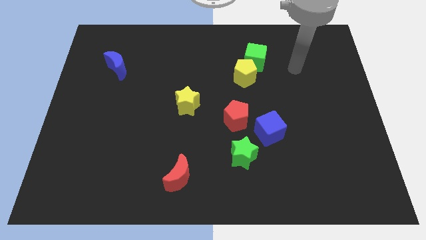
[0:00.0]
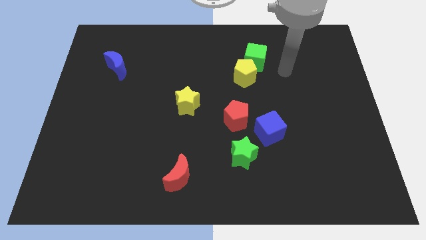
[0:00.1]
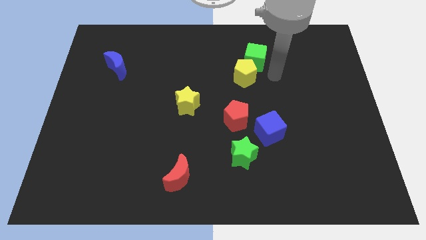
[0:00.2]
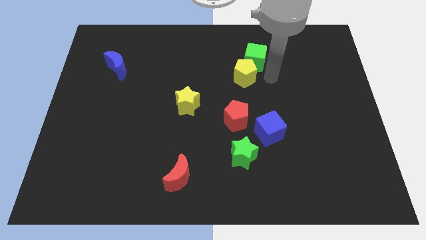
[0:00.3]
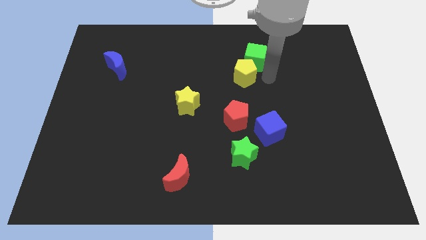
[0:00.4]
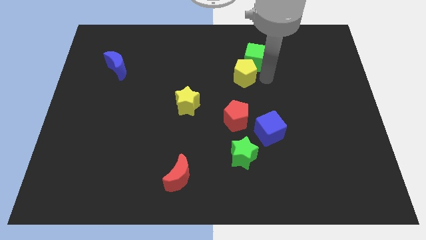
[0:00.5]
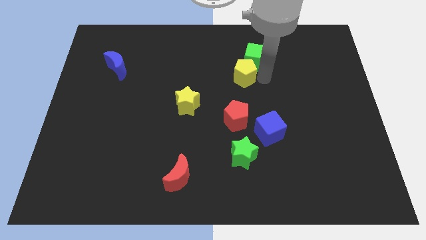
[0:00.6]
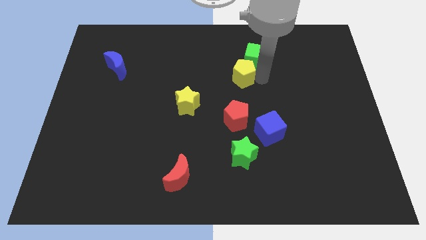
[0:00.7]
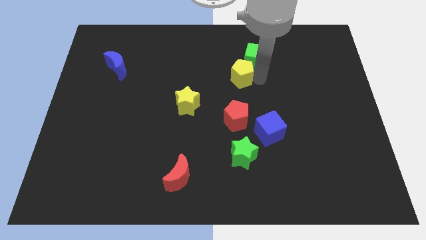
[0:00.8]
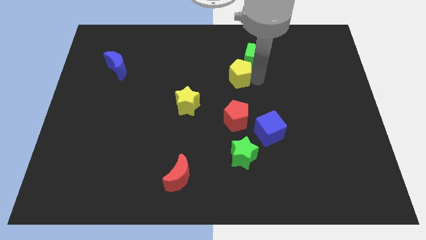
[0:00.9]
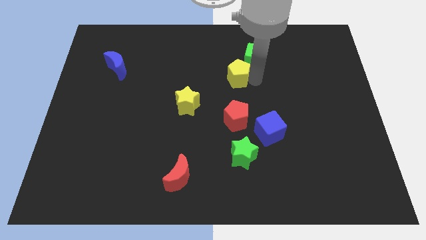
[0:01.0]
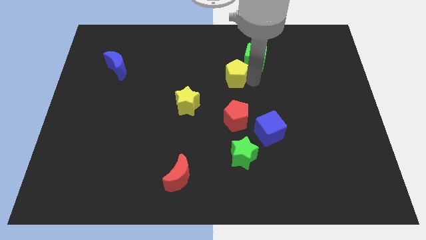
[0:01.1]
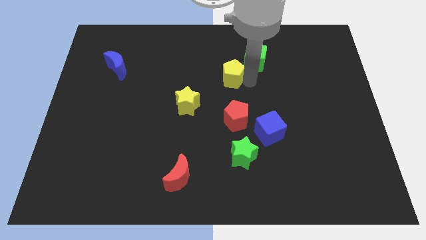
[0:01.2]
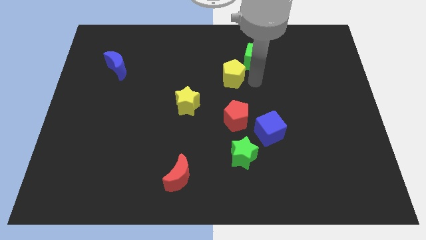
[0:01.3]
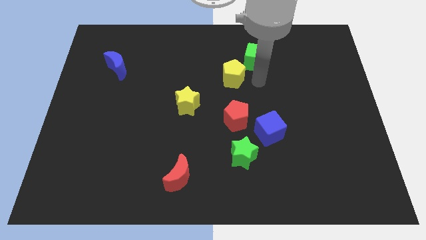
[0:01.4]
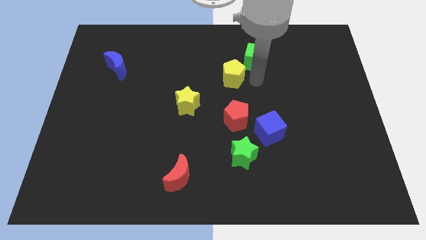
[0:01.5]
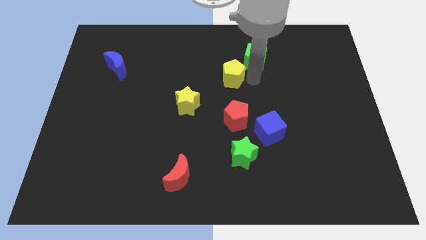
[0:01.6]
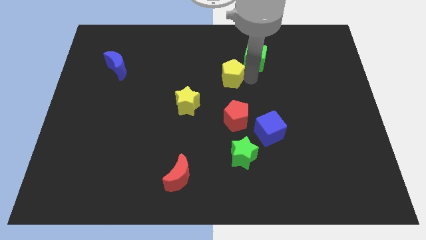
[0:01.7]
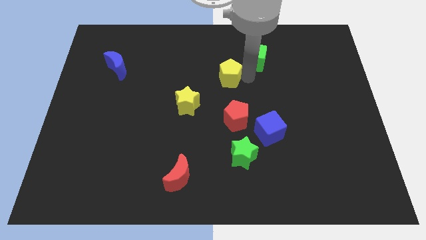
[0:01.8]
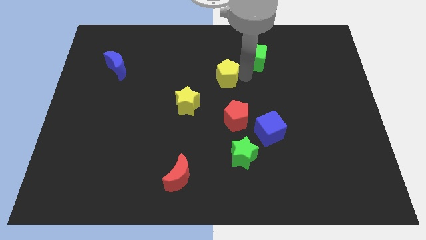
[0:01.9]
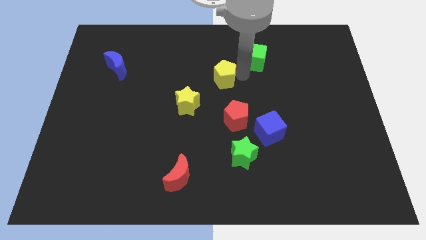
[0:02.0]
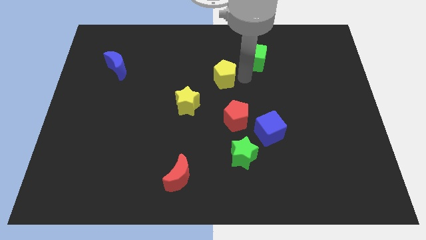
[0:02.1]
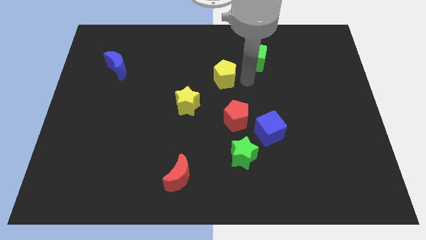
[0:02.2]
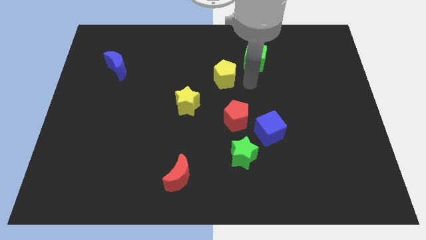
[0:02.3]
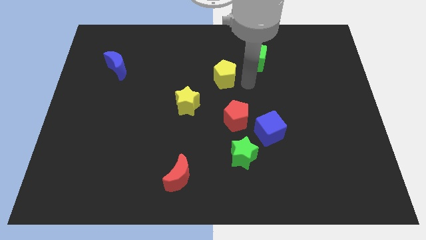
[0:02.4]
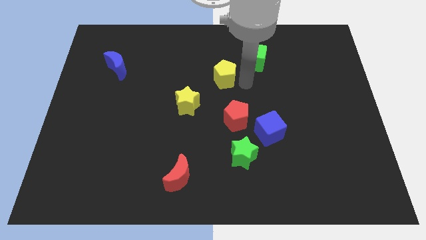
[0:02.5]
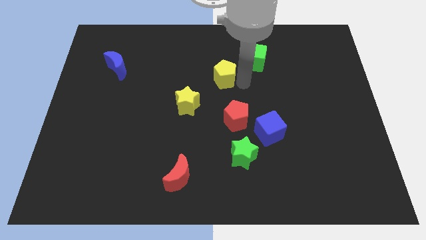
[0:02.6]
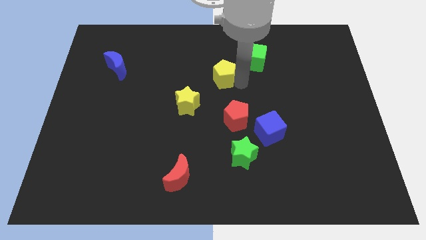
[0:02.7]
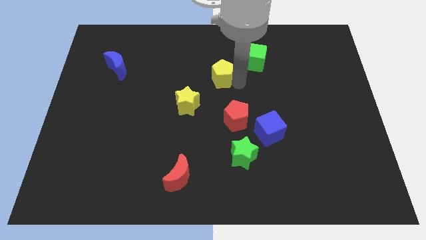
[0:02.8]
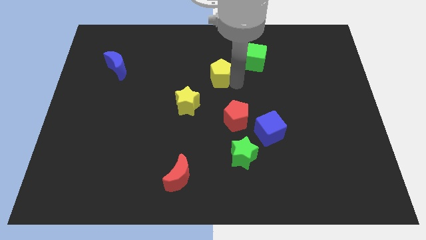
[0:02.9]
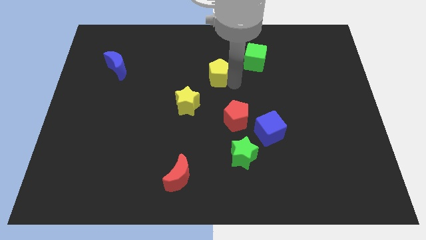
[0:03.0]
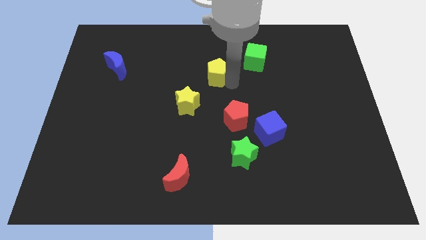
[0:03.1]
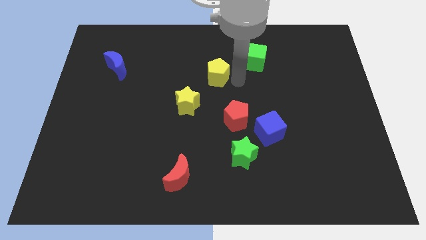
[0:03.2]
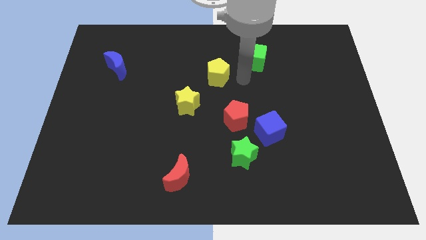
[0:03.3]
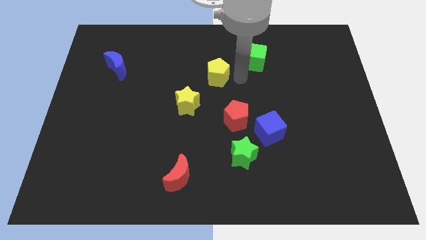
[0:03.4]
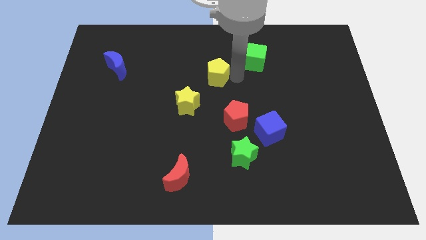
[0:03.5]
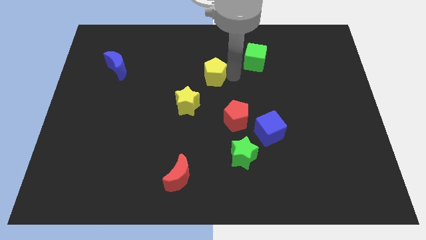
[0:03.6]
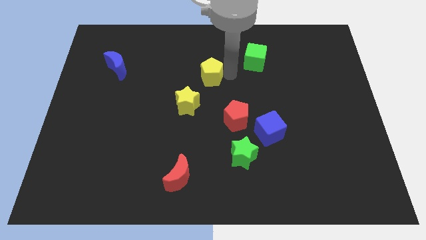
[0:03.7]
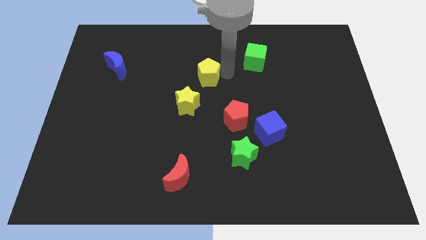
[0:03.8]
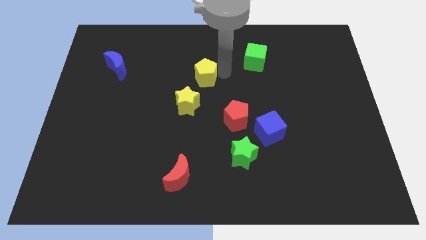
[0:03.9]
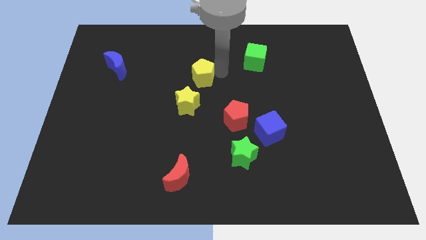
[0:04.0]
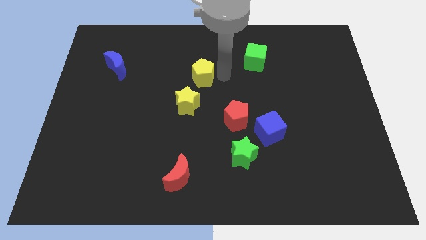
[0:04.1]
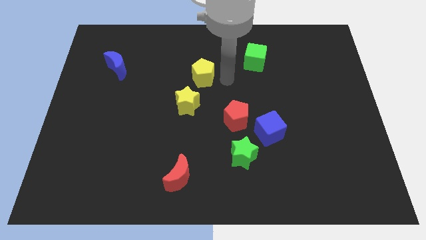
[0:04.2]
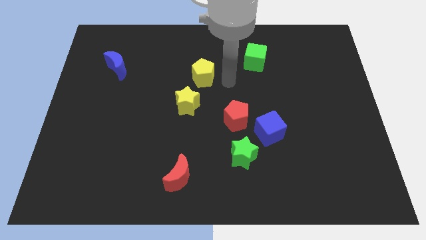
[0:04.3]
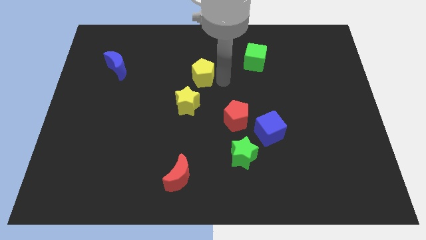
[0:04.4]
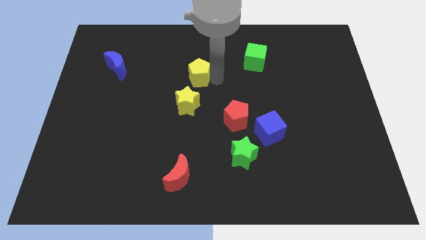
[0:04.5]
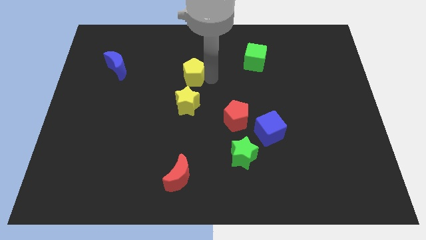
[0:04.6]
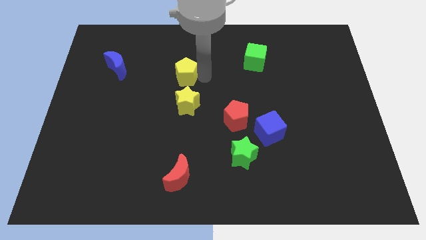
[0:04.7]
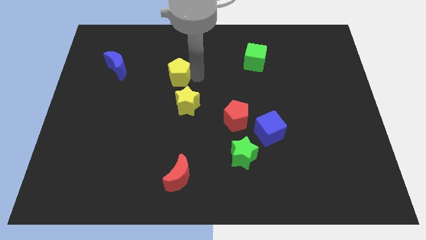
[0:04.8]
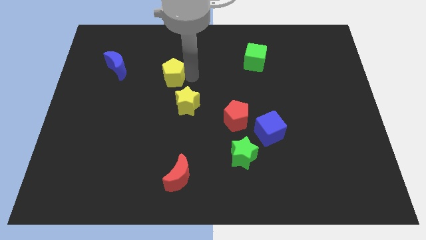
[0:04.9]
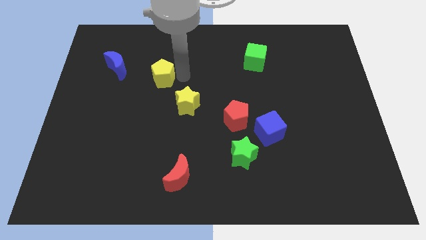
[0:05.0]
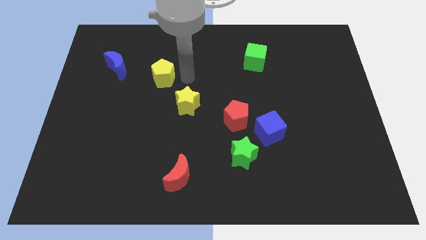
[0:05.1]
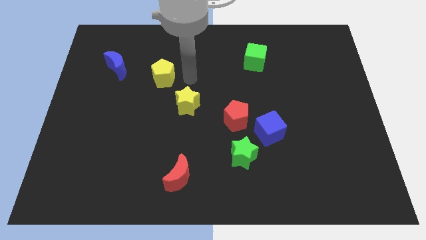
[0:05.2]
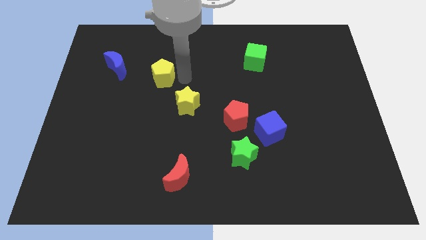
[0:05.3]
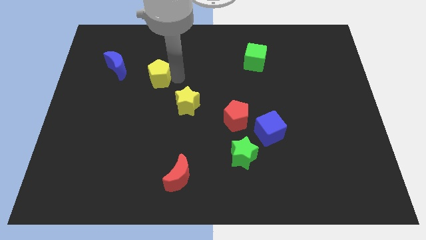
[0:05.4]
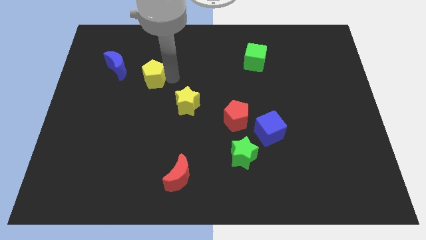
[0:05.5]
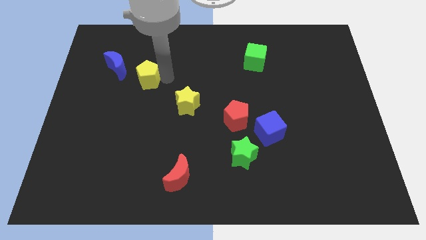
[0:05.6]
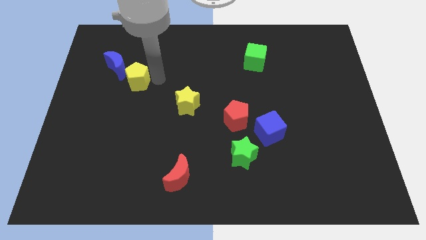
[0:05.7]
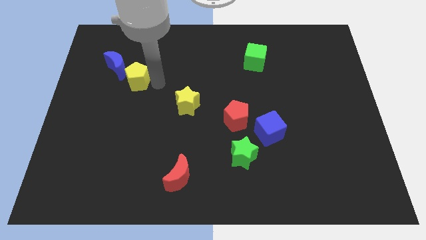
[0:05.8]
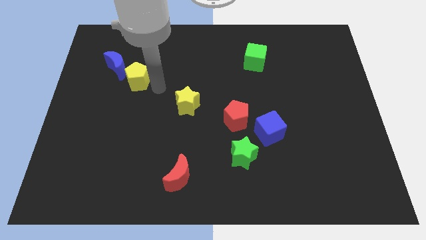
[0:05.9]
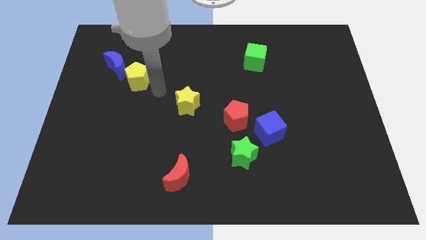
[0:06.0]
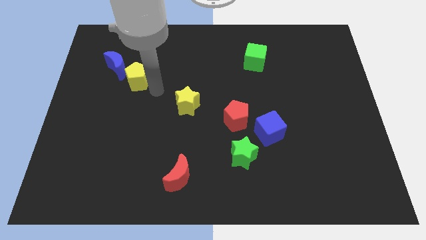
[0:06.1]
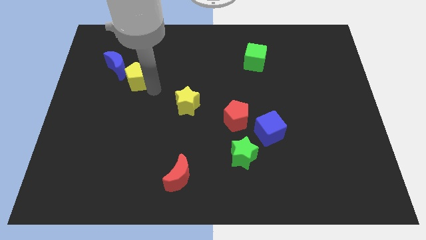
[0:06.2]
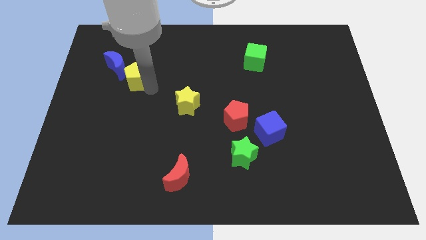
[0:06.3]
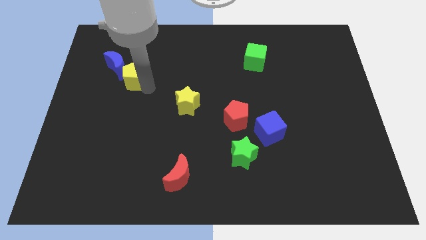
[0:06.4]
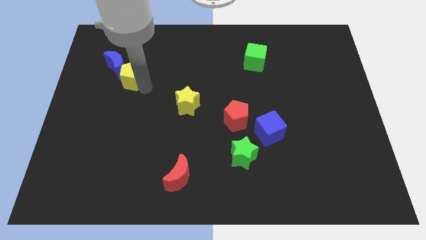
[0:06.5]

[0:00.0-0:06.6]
slide the yellow pentagon next to the blue moon

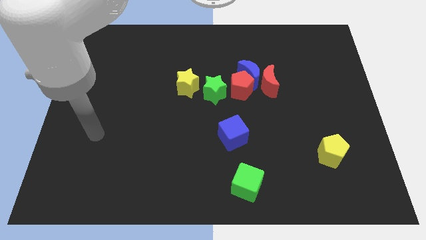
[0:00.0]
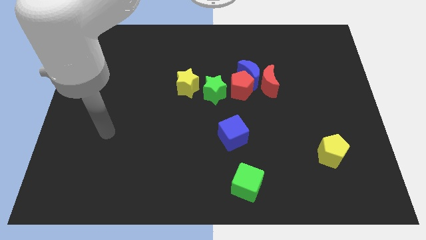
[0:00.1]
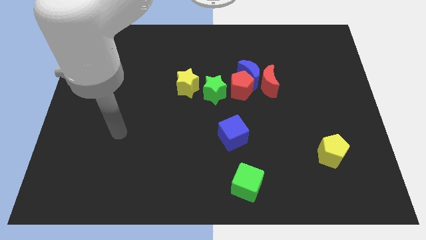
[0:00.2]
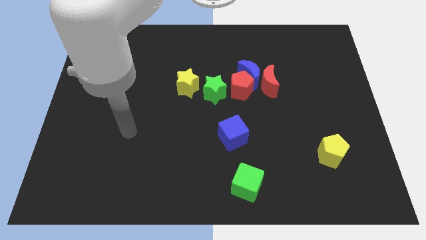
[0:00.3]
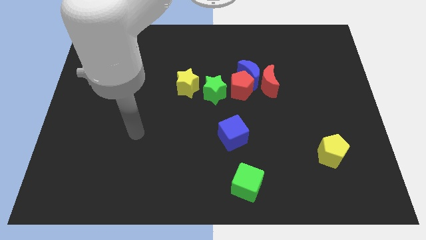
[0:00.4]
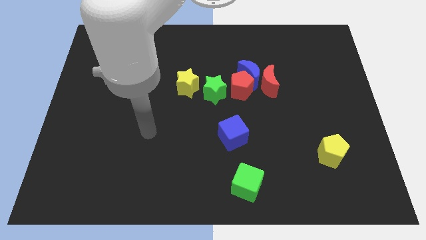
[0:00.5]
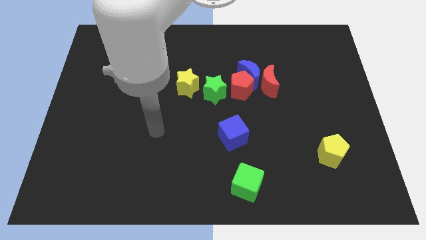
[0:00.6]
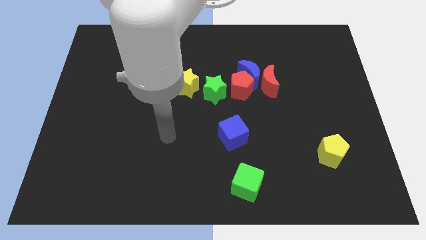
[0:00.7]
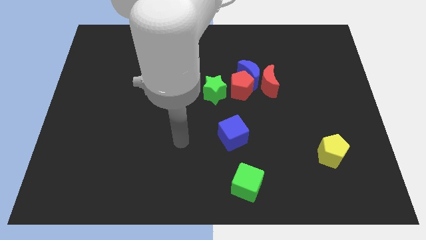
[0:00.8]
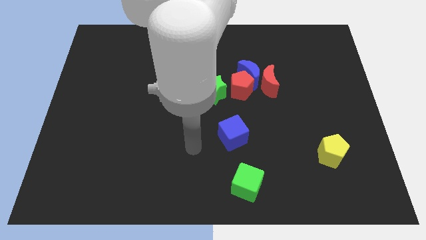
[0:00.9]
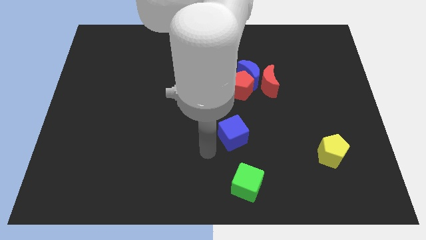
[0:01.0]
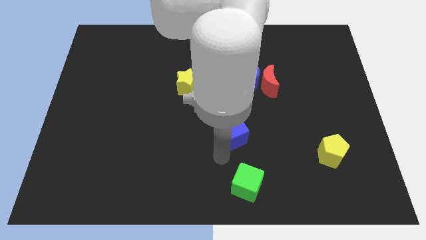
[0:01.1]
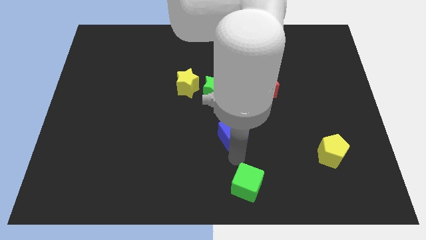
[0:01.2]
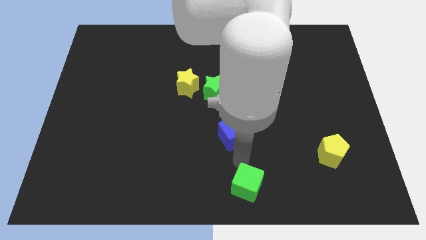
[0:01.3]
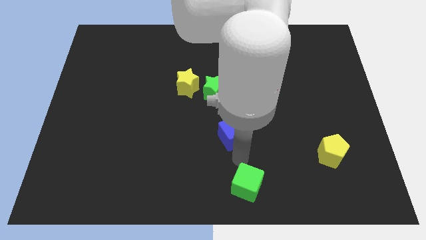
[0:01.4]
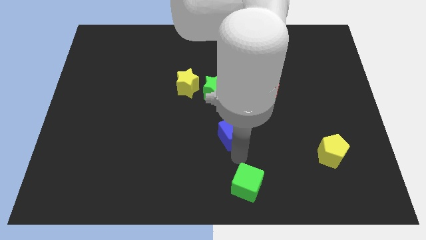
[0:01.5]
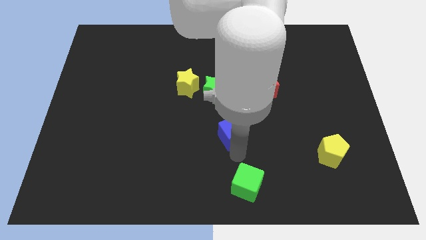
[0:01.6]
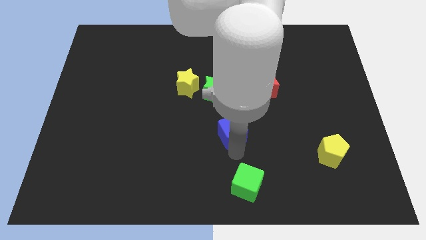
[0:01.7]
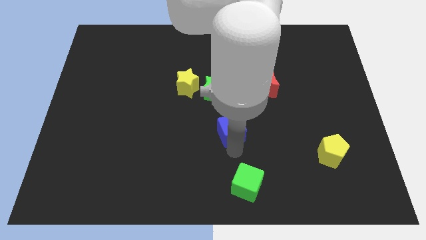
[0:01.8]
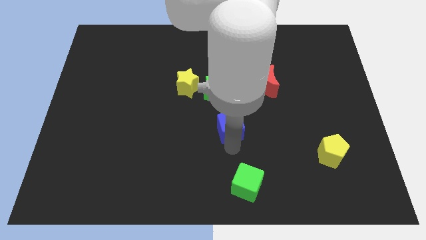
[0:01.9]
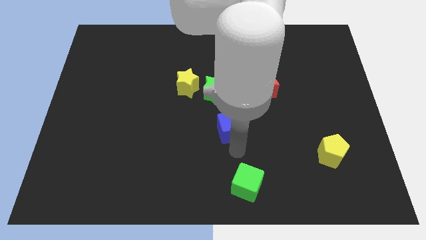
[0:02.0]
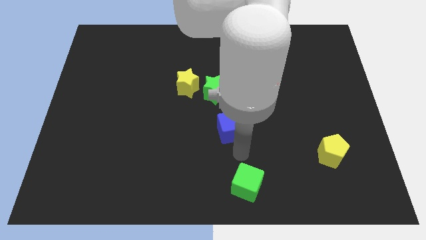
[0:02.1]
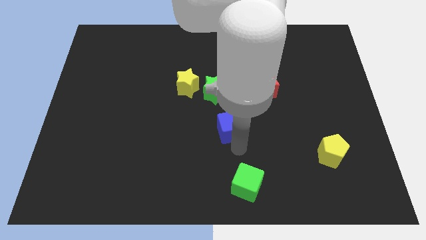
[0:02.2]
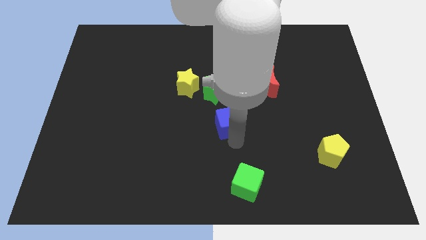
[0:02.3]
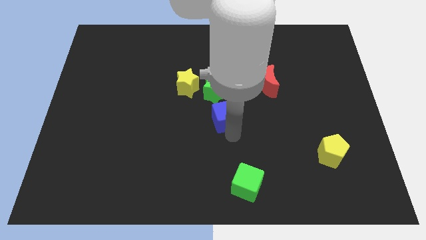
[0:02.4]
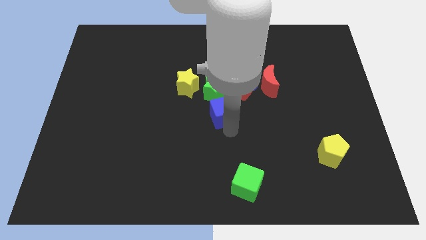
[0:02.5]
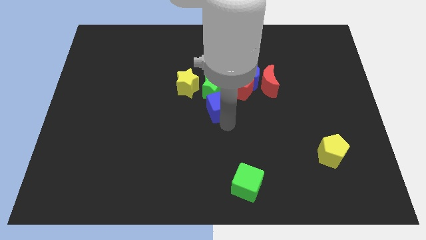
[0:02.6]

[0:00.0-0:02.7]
put the blue cube next to the green star
